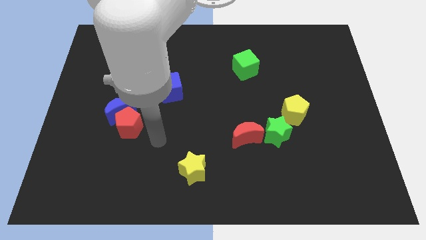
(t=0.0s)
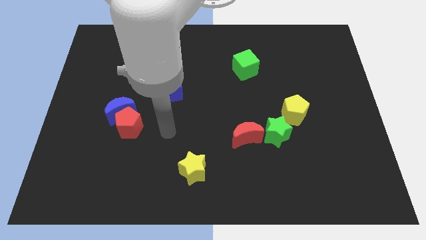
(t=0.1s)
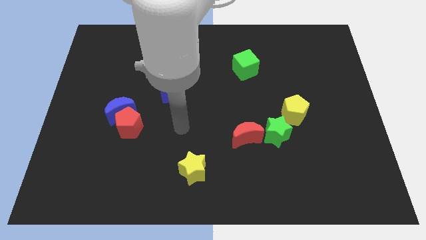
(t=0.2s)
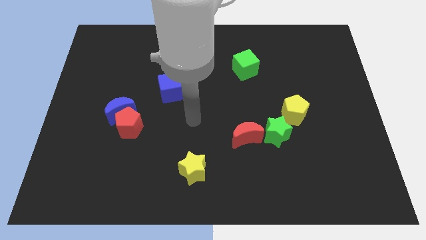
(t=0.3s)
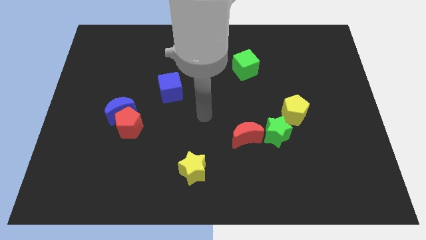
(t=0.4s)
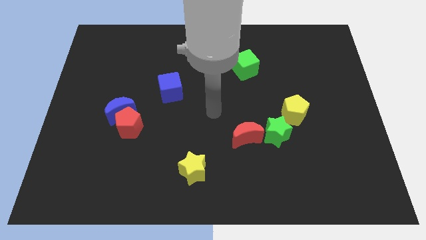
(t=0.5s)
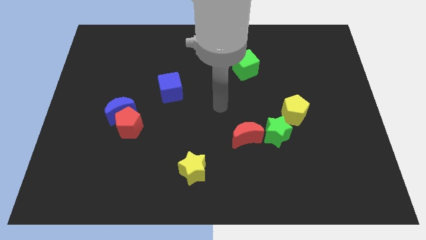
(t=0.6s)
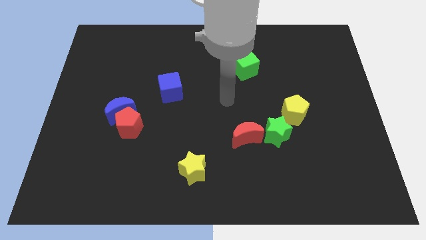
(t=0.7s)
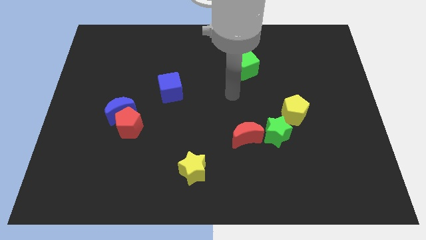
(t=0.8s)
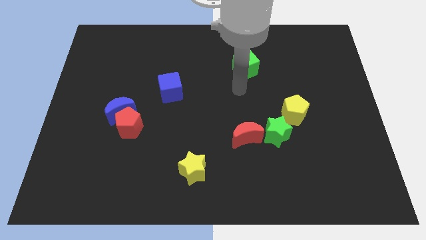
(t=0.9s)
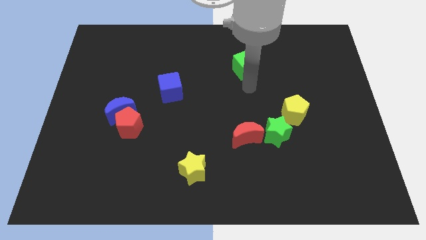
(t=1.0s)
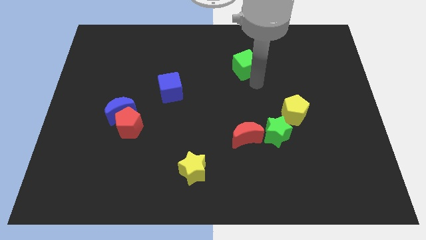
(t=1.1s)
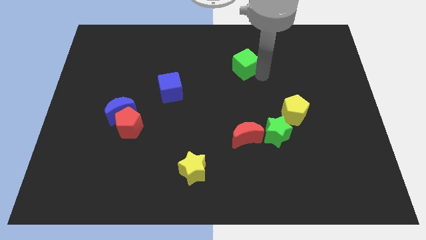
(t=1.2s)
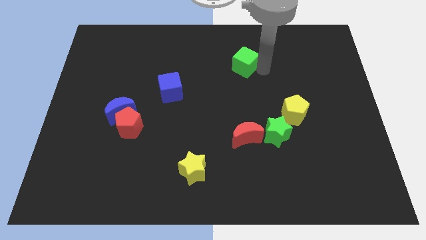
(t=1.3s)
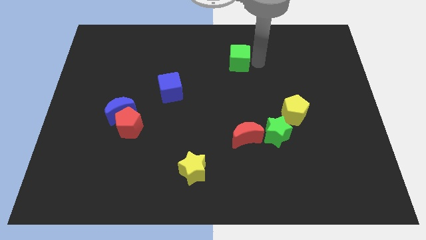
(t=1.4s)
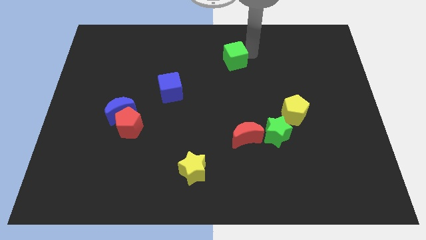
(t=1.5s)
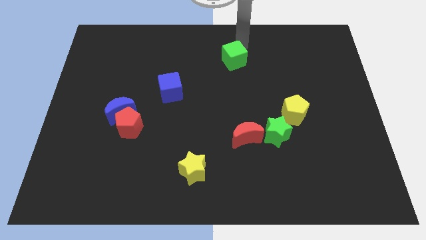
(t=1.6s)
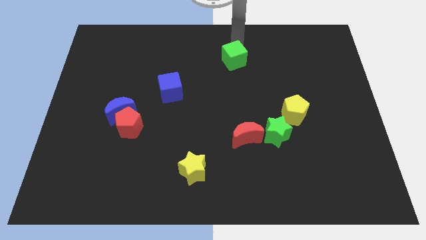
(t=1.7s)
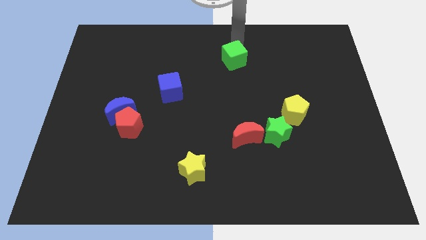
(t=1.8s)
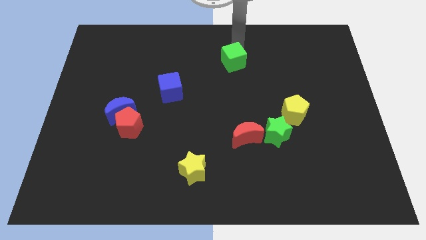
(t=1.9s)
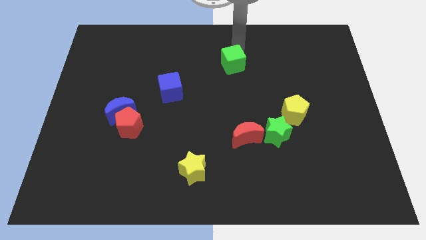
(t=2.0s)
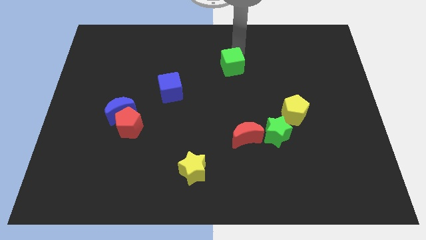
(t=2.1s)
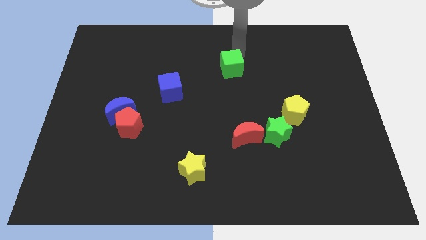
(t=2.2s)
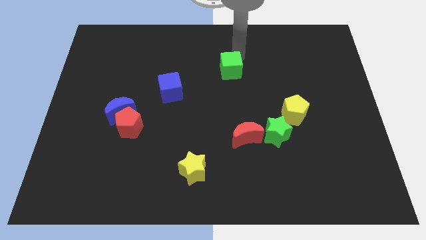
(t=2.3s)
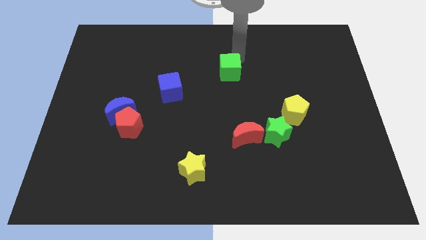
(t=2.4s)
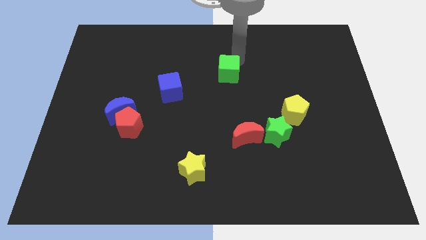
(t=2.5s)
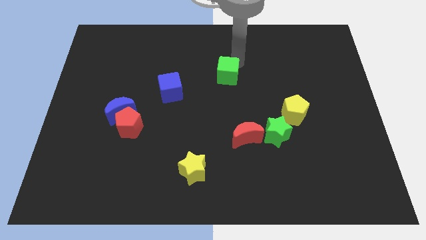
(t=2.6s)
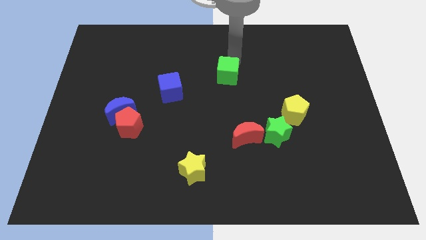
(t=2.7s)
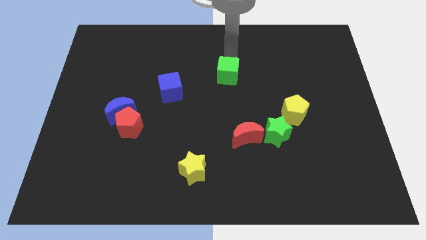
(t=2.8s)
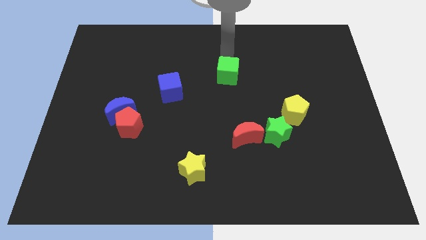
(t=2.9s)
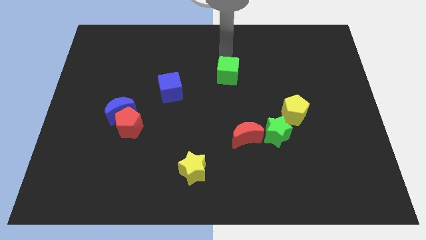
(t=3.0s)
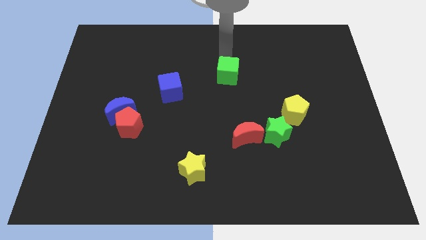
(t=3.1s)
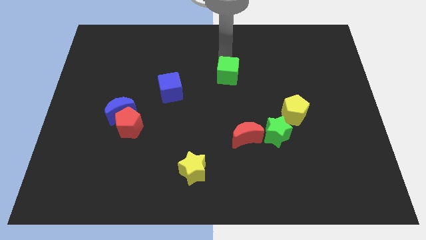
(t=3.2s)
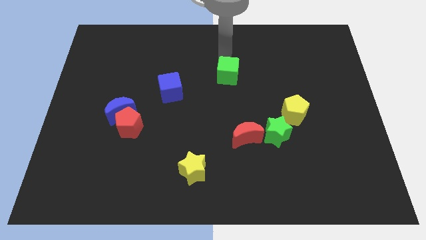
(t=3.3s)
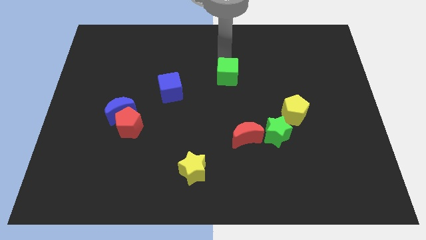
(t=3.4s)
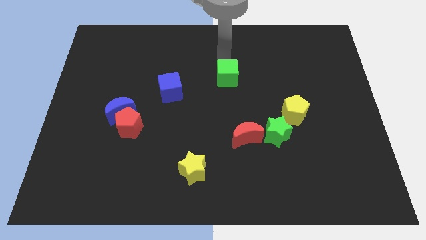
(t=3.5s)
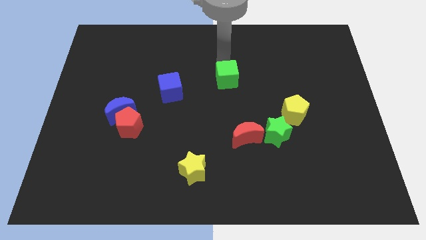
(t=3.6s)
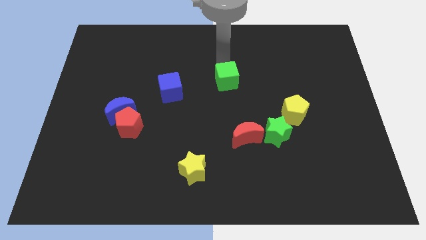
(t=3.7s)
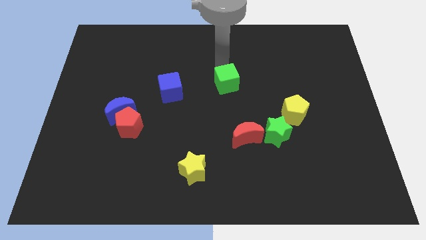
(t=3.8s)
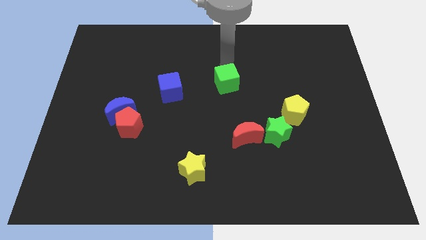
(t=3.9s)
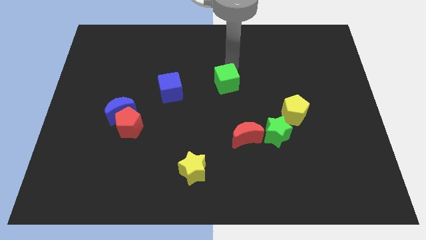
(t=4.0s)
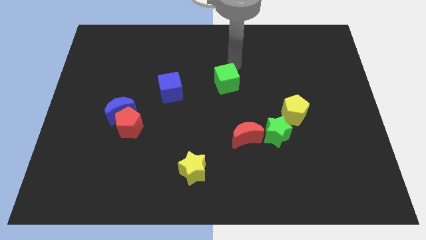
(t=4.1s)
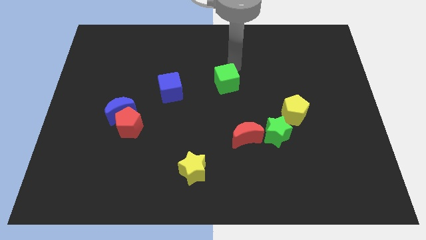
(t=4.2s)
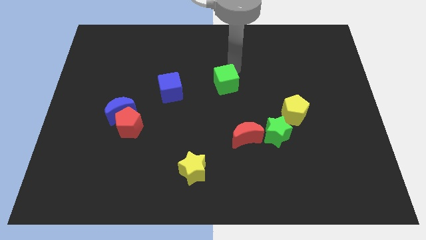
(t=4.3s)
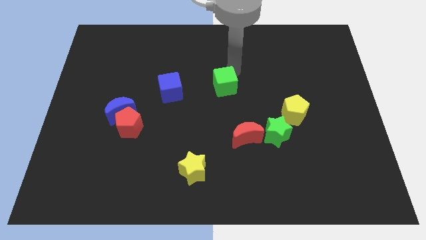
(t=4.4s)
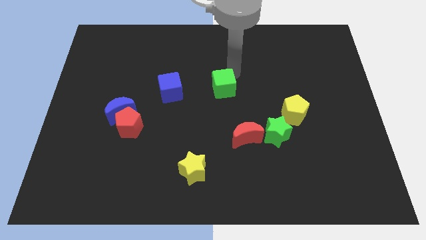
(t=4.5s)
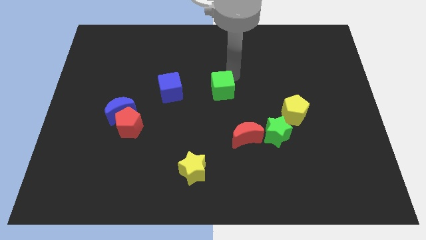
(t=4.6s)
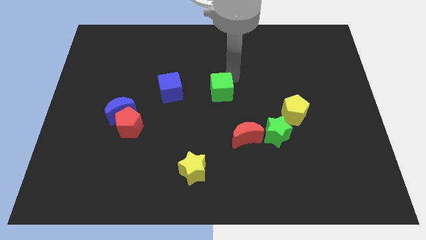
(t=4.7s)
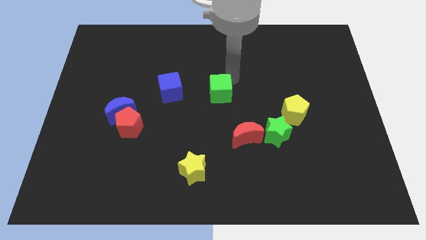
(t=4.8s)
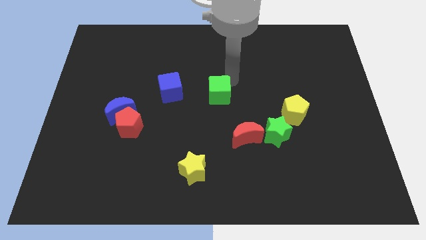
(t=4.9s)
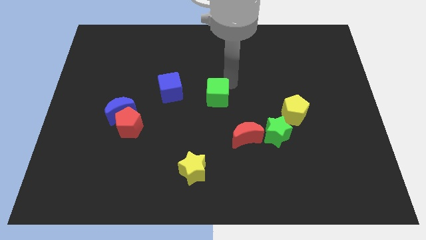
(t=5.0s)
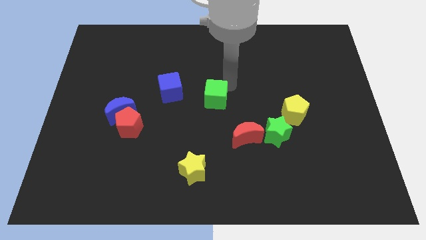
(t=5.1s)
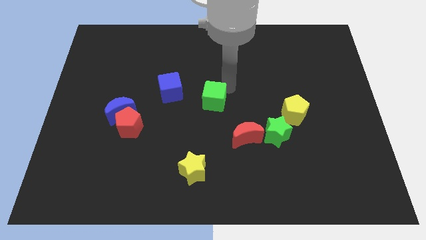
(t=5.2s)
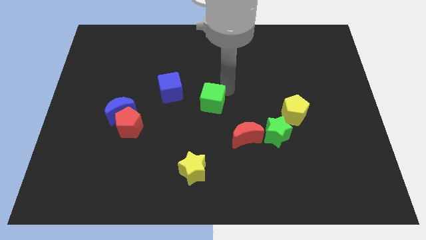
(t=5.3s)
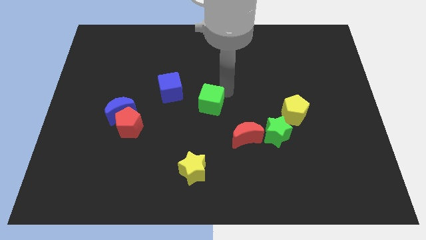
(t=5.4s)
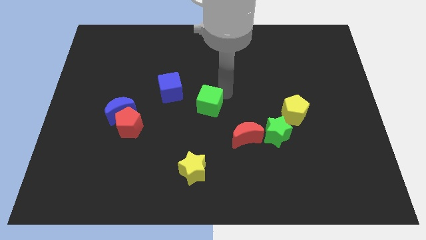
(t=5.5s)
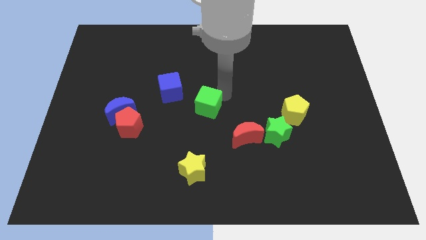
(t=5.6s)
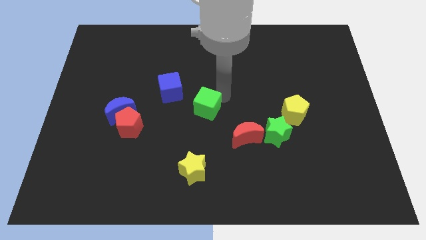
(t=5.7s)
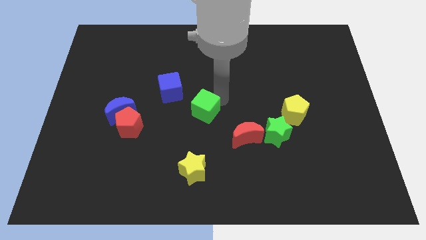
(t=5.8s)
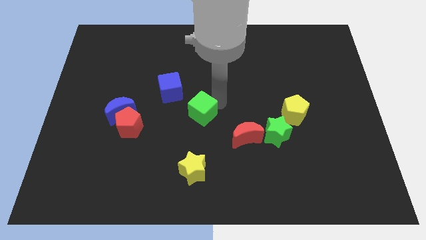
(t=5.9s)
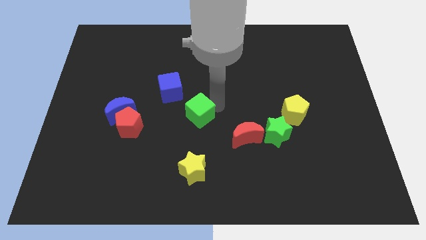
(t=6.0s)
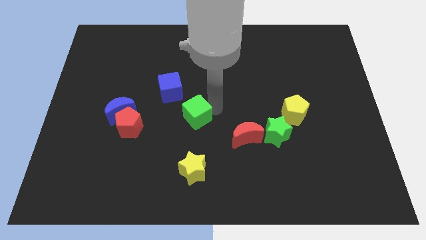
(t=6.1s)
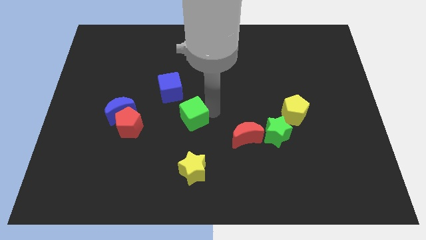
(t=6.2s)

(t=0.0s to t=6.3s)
slide the green cube down and left

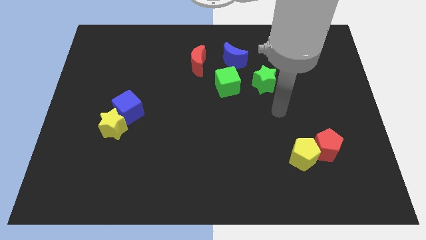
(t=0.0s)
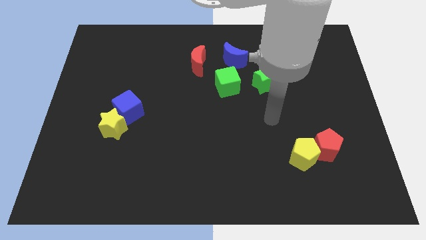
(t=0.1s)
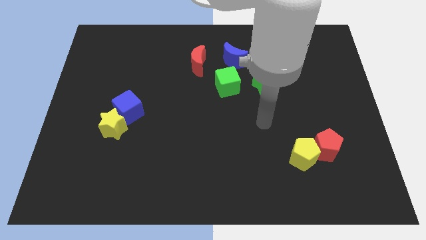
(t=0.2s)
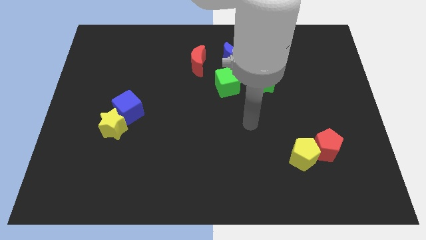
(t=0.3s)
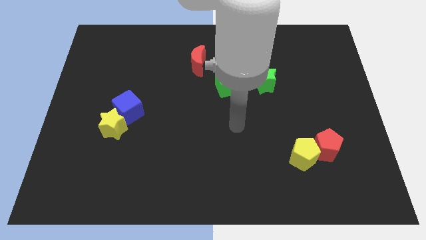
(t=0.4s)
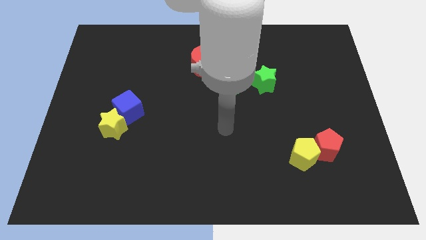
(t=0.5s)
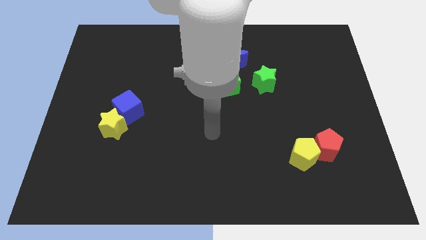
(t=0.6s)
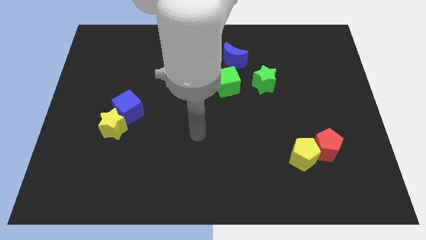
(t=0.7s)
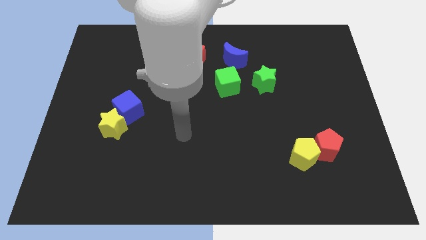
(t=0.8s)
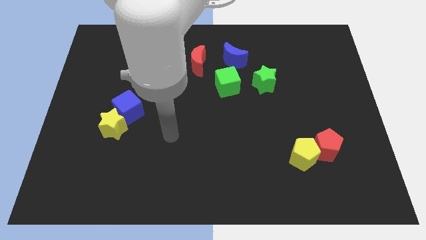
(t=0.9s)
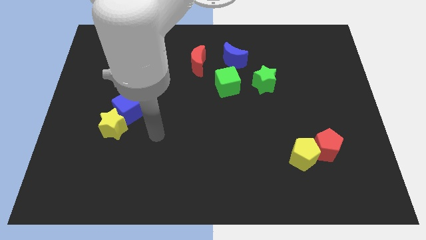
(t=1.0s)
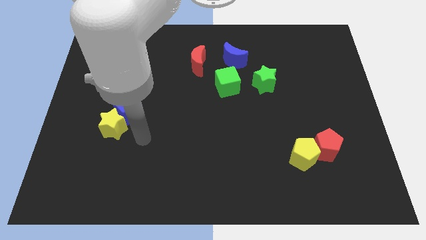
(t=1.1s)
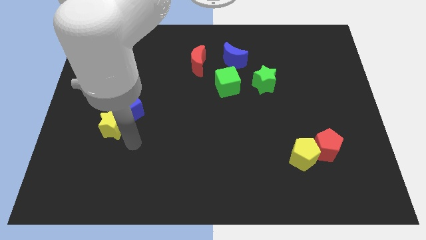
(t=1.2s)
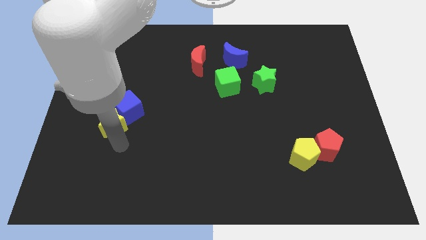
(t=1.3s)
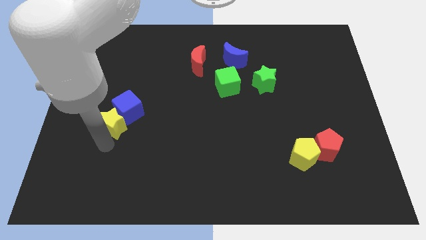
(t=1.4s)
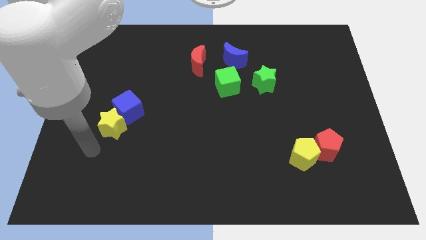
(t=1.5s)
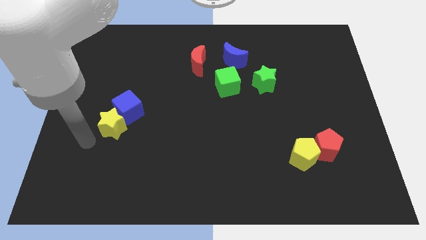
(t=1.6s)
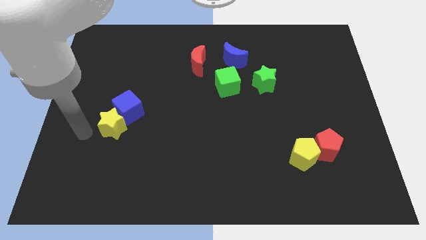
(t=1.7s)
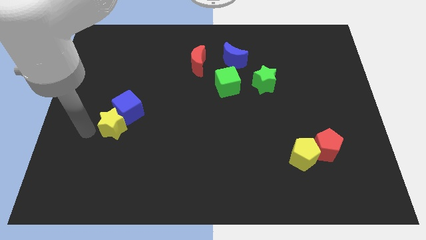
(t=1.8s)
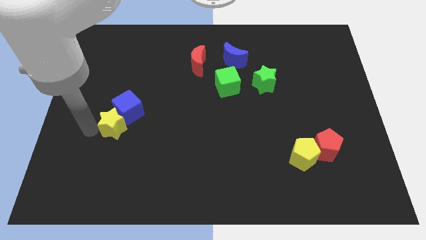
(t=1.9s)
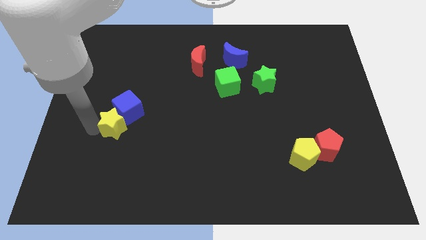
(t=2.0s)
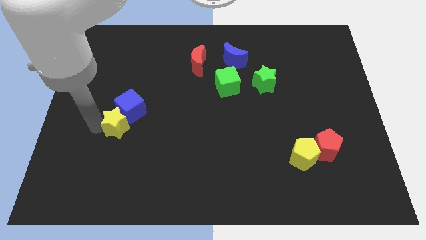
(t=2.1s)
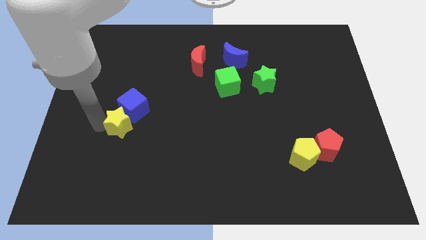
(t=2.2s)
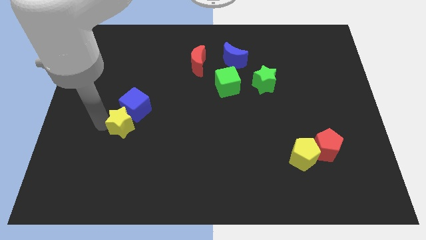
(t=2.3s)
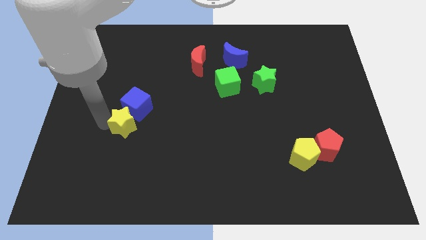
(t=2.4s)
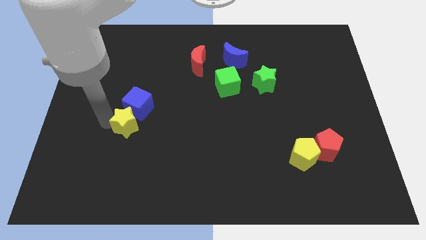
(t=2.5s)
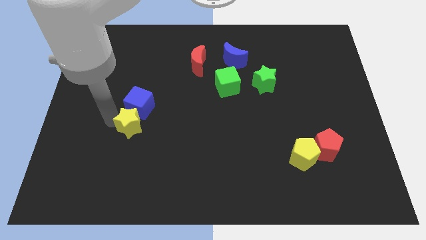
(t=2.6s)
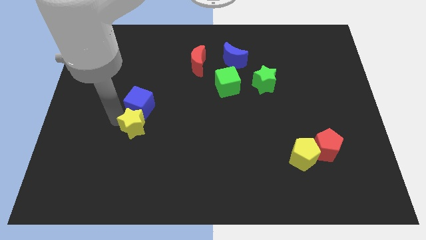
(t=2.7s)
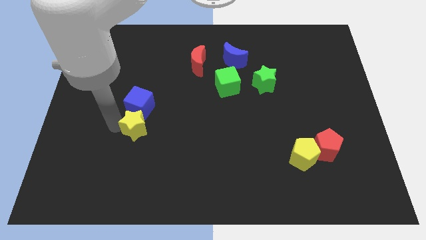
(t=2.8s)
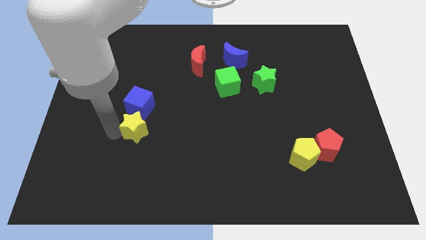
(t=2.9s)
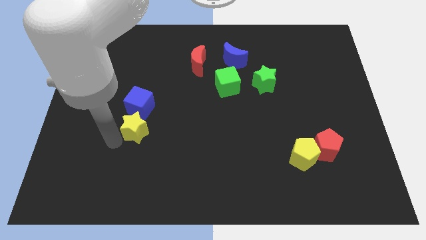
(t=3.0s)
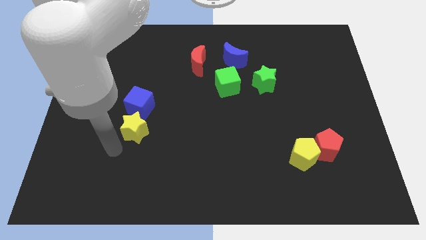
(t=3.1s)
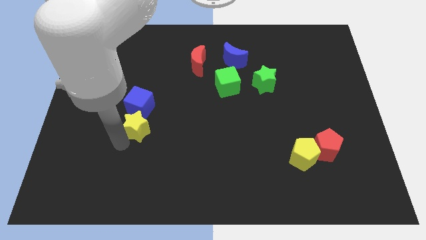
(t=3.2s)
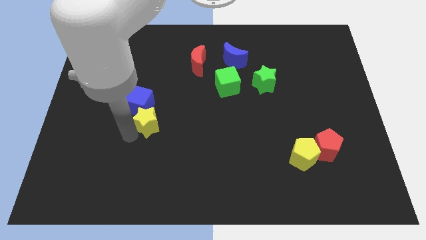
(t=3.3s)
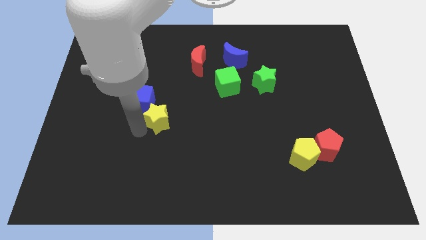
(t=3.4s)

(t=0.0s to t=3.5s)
push the yellow star somewhat up and to the right diagonally
